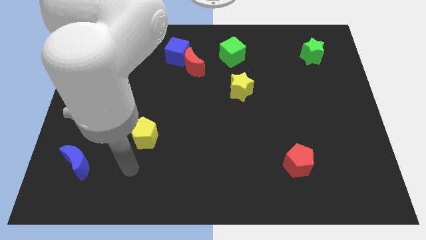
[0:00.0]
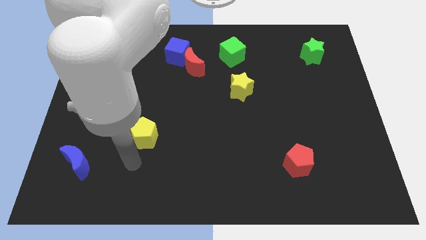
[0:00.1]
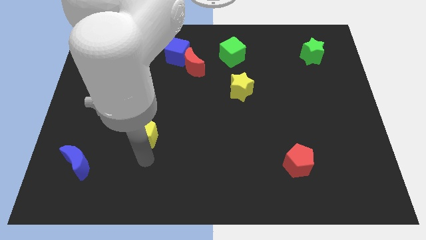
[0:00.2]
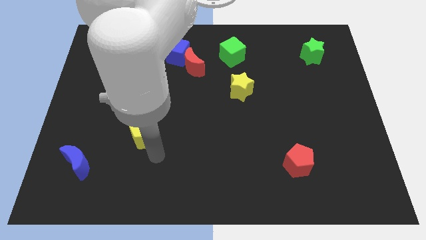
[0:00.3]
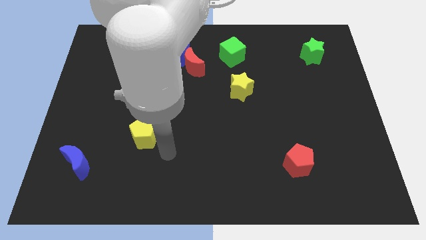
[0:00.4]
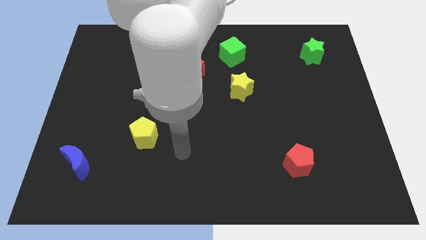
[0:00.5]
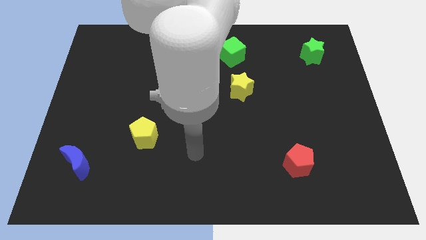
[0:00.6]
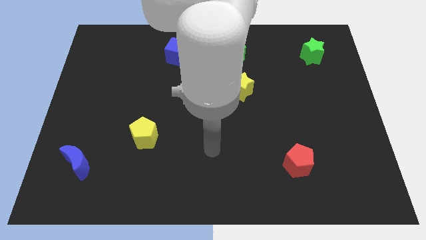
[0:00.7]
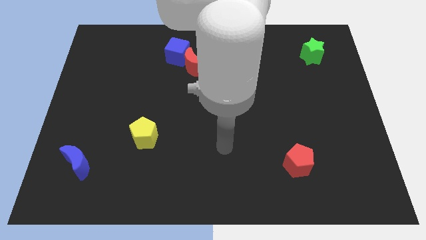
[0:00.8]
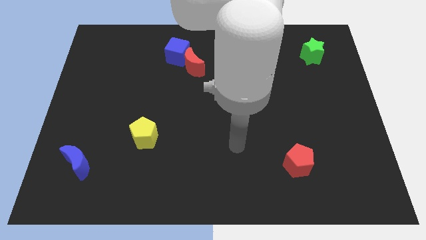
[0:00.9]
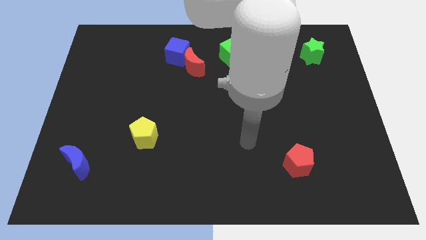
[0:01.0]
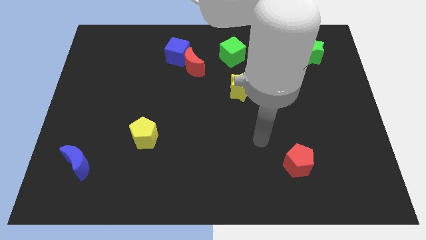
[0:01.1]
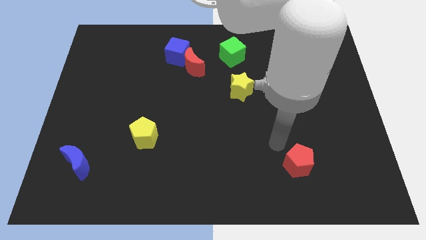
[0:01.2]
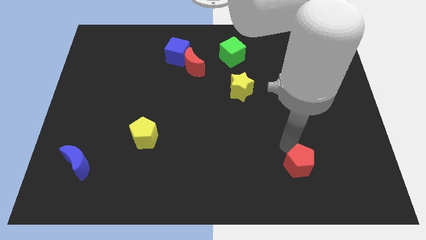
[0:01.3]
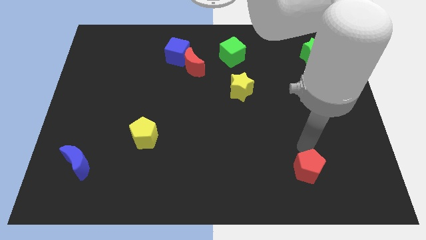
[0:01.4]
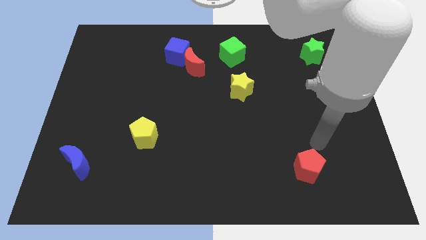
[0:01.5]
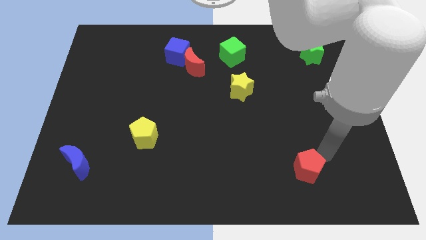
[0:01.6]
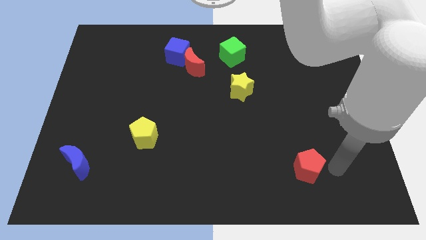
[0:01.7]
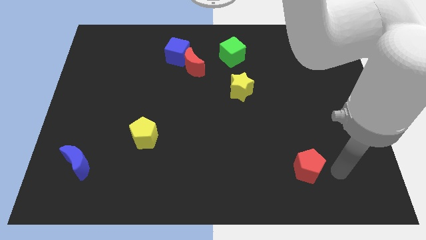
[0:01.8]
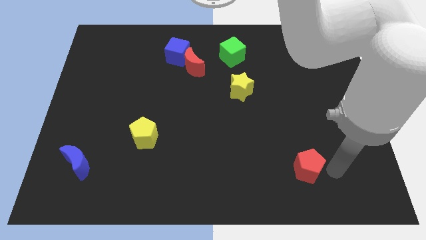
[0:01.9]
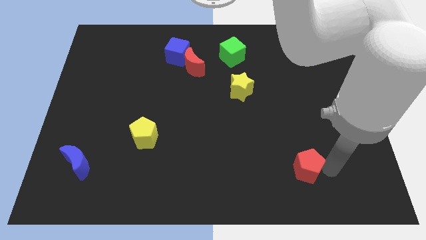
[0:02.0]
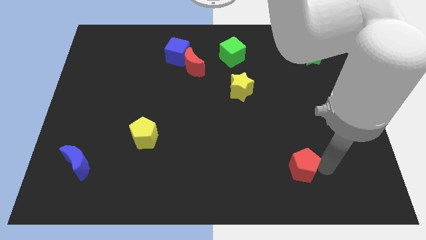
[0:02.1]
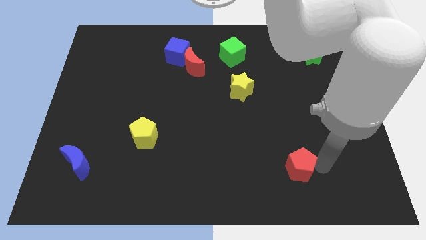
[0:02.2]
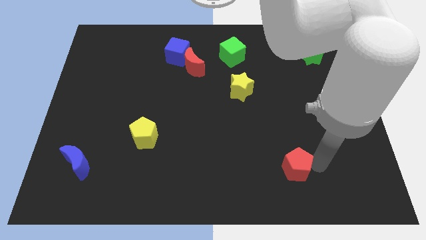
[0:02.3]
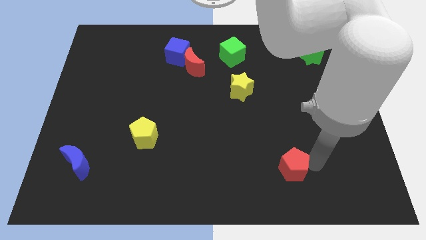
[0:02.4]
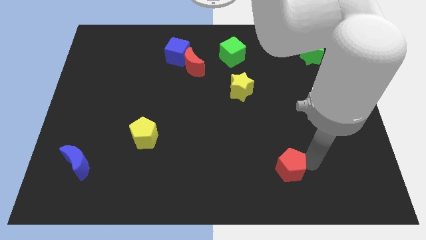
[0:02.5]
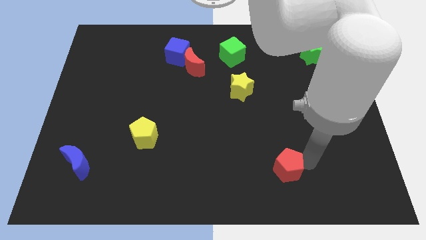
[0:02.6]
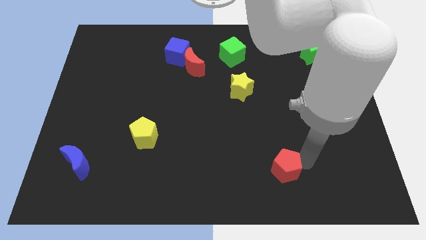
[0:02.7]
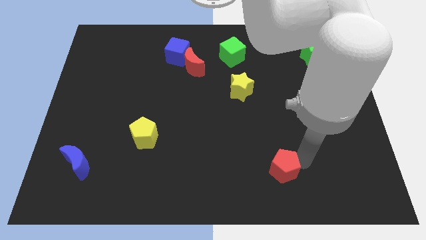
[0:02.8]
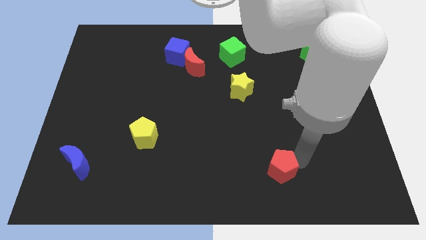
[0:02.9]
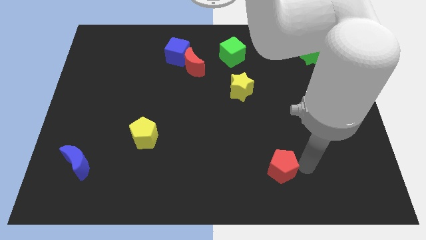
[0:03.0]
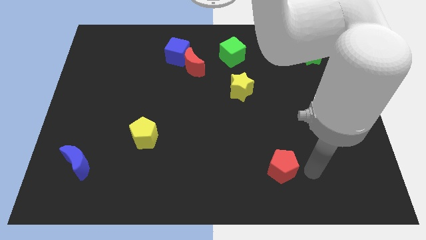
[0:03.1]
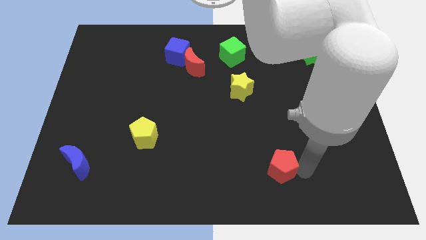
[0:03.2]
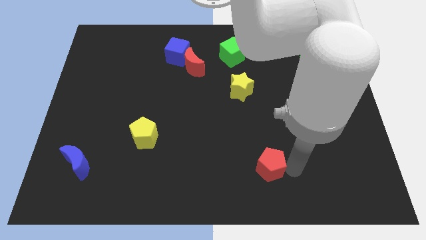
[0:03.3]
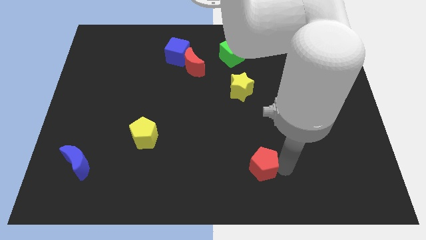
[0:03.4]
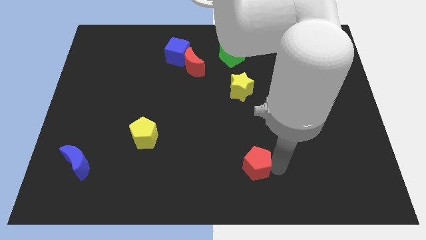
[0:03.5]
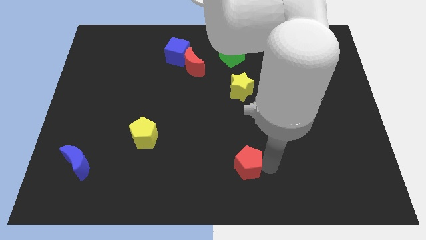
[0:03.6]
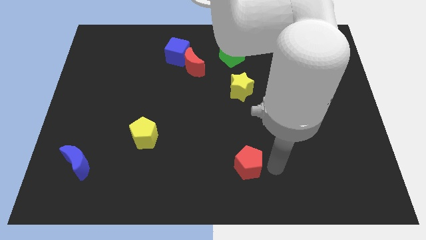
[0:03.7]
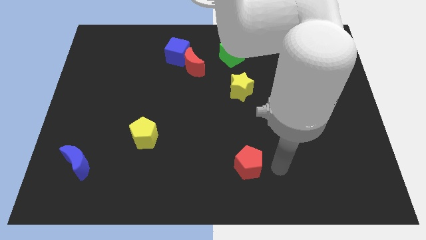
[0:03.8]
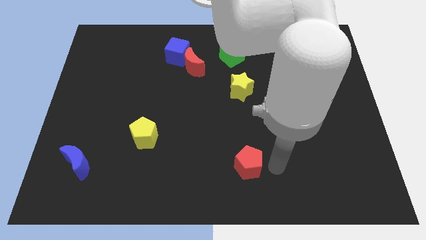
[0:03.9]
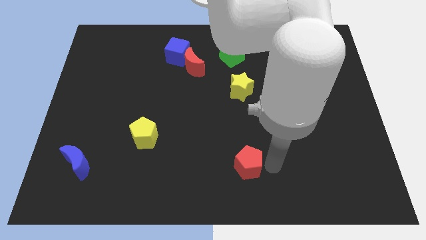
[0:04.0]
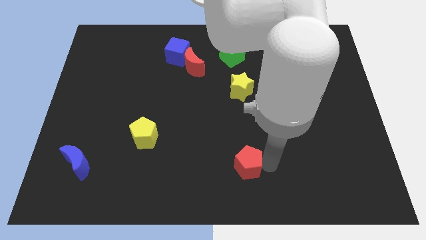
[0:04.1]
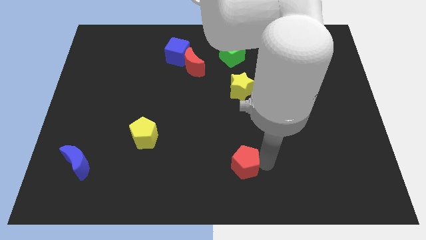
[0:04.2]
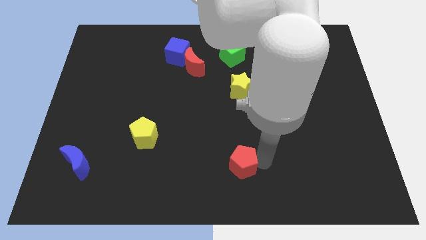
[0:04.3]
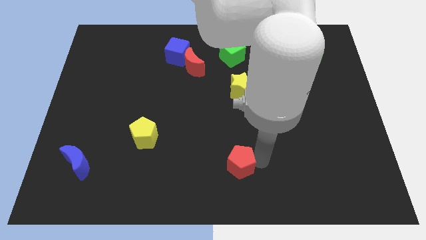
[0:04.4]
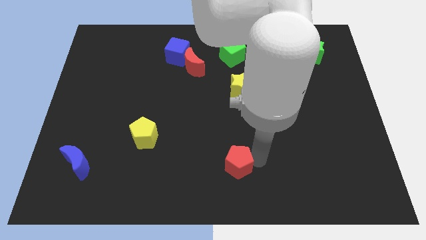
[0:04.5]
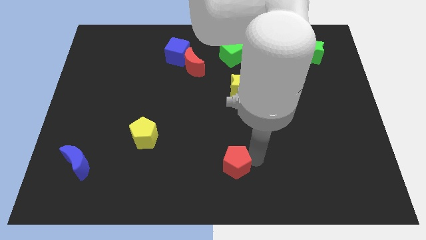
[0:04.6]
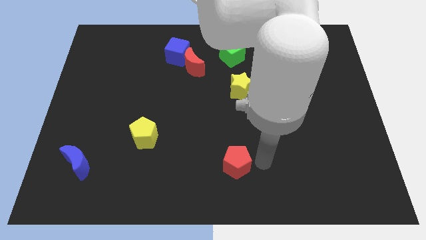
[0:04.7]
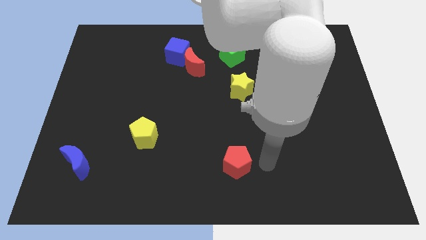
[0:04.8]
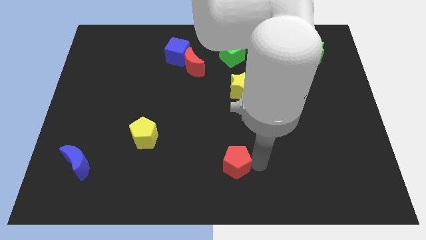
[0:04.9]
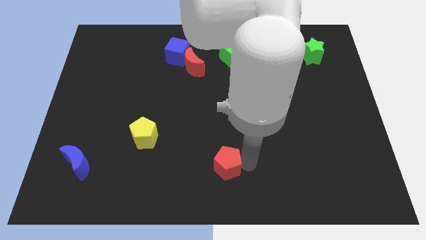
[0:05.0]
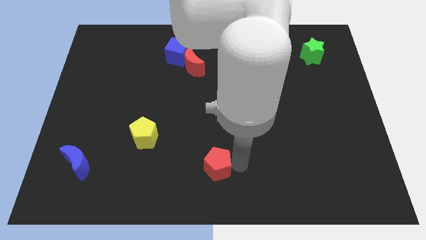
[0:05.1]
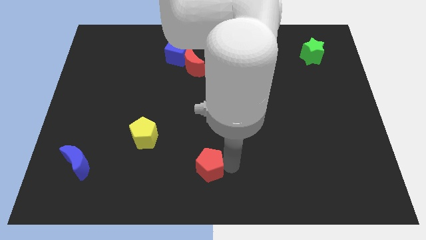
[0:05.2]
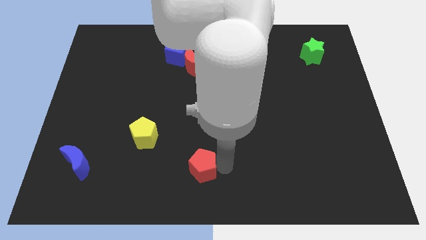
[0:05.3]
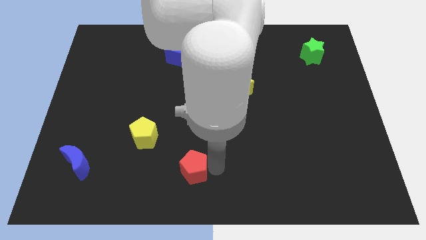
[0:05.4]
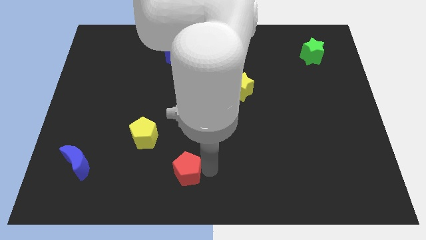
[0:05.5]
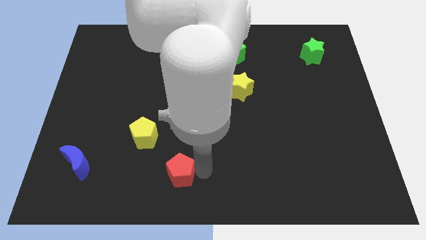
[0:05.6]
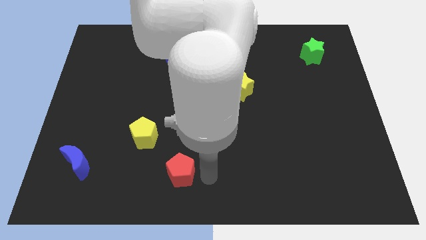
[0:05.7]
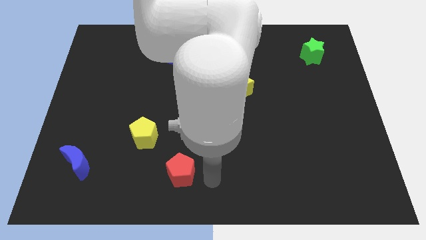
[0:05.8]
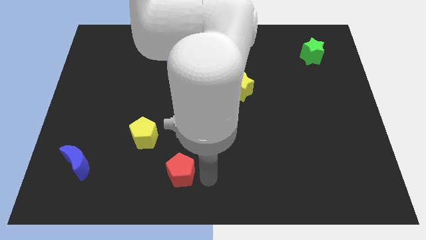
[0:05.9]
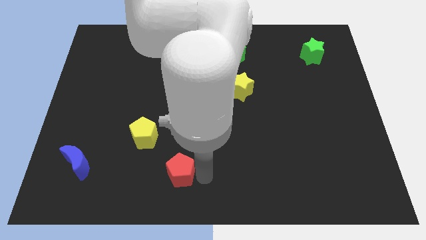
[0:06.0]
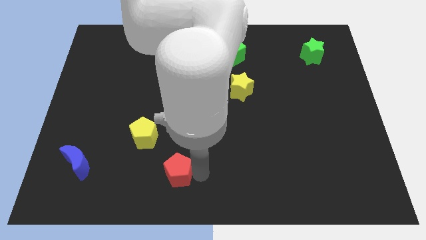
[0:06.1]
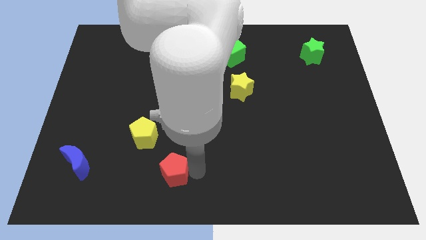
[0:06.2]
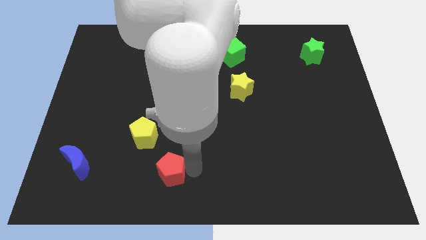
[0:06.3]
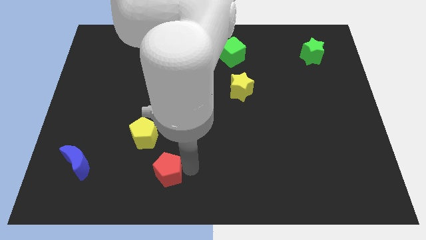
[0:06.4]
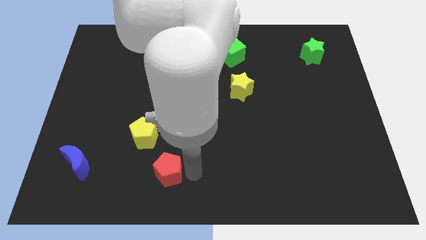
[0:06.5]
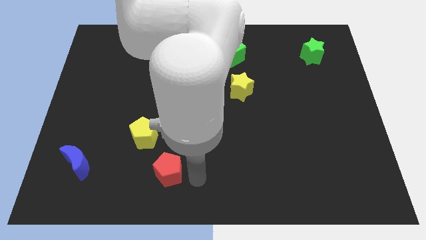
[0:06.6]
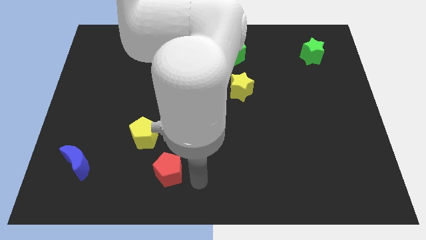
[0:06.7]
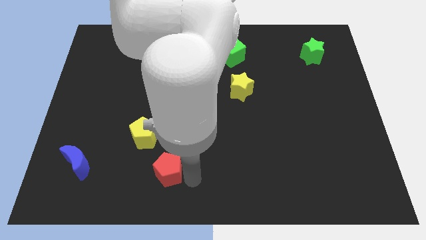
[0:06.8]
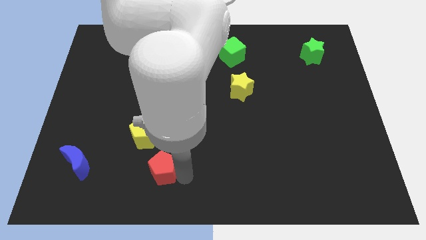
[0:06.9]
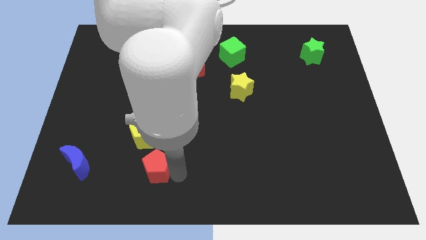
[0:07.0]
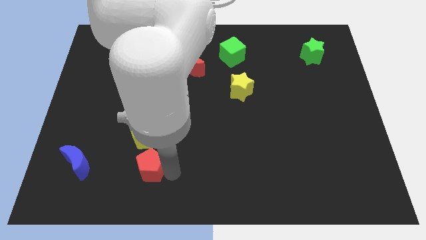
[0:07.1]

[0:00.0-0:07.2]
slide the red pentagon just right of the blue moon
